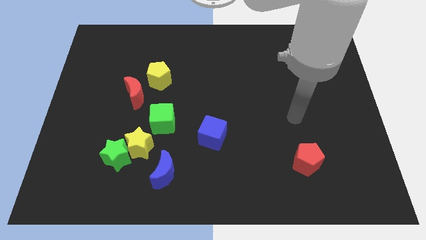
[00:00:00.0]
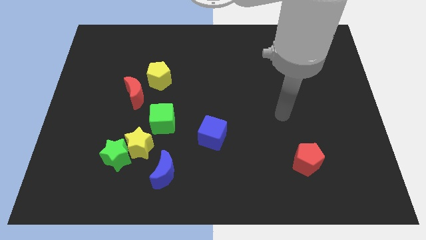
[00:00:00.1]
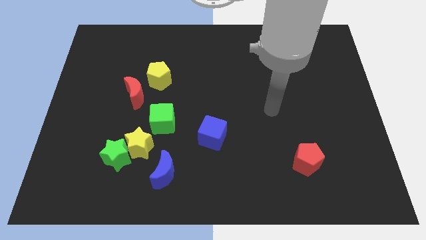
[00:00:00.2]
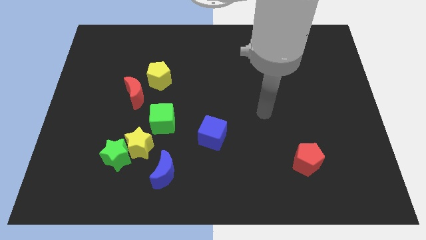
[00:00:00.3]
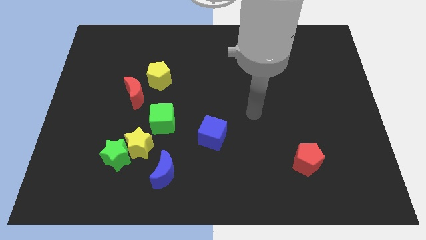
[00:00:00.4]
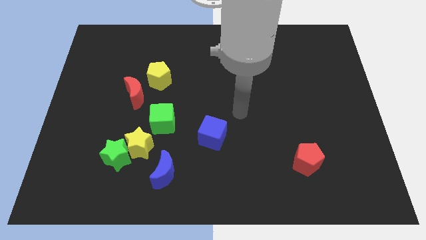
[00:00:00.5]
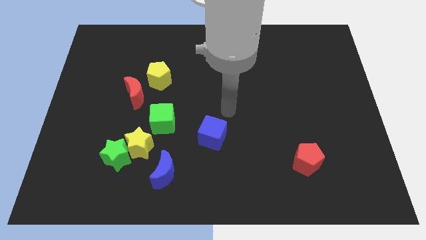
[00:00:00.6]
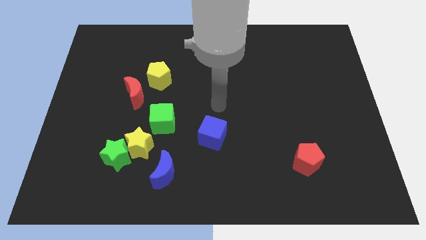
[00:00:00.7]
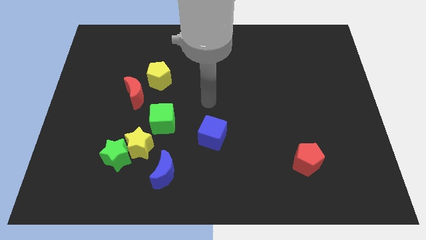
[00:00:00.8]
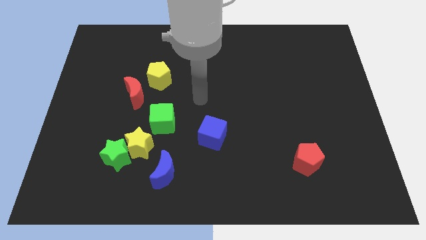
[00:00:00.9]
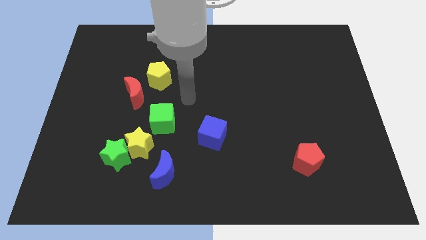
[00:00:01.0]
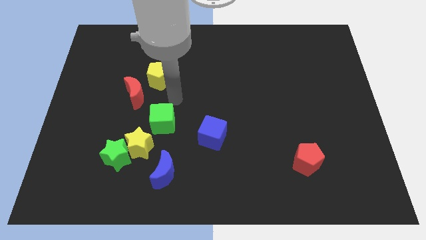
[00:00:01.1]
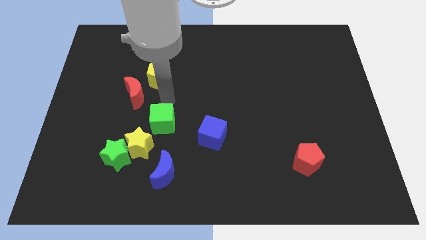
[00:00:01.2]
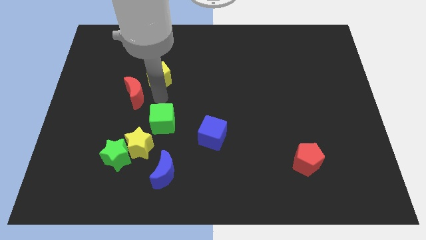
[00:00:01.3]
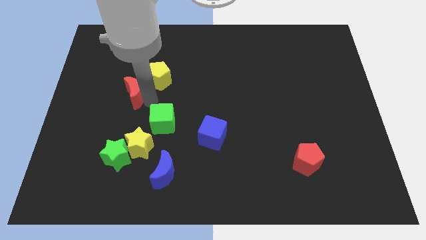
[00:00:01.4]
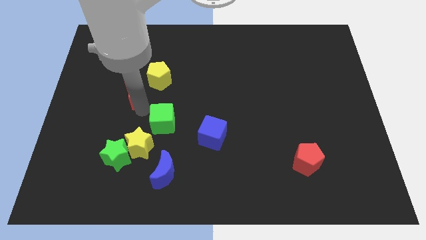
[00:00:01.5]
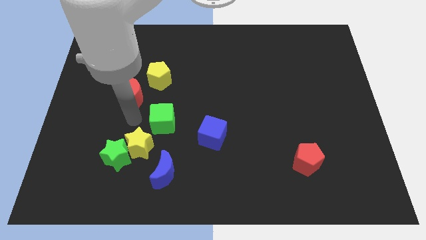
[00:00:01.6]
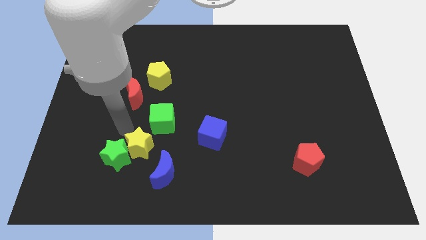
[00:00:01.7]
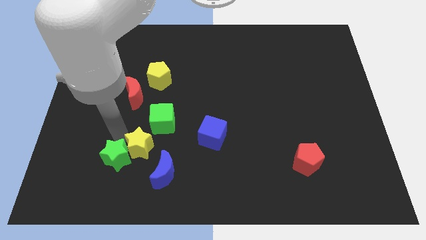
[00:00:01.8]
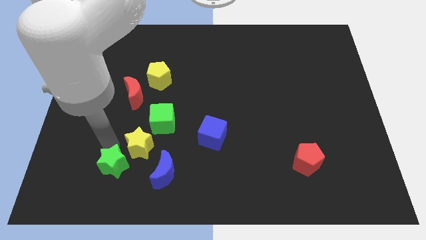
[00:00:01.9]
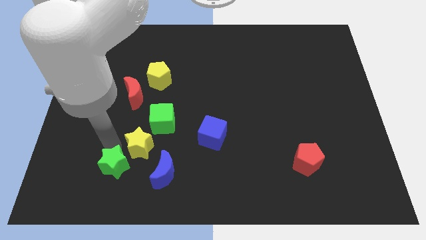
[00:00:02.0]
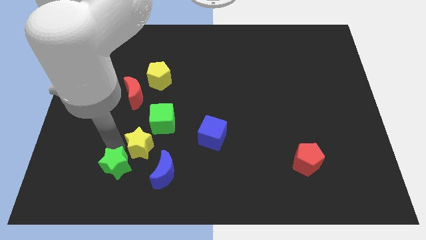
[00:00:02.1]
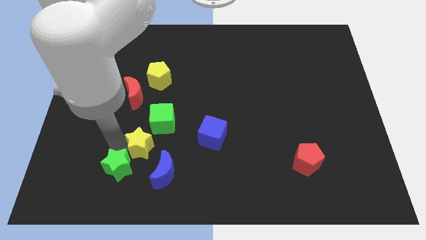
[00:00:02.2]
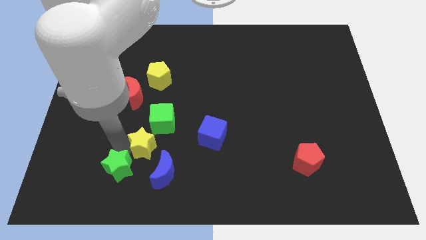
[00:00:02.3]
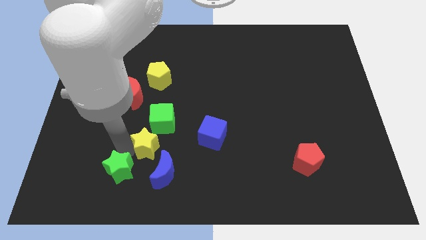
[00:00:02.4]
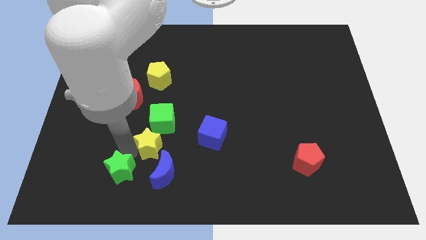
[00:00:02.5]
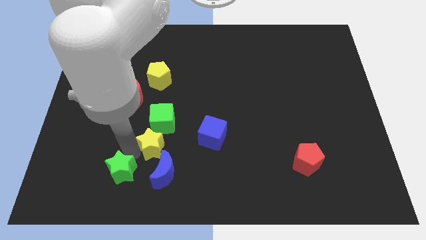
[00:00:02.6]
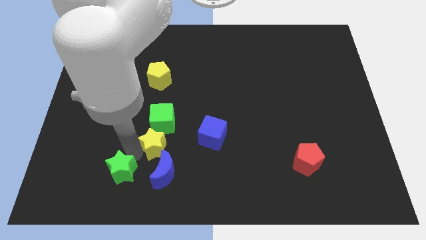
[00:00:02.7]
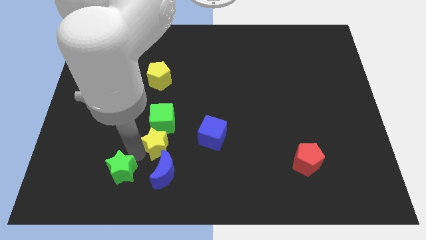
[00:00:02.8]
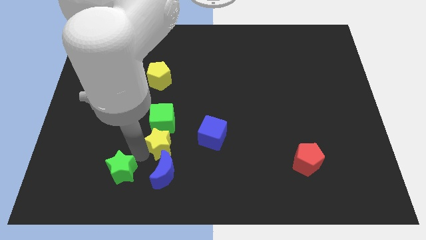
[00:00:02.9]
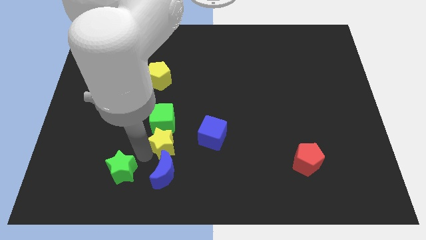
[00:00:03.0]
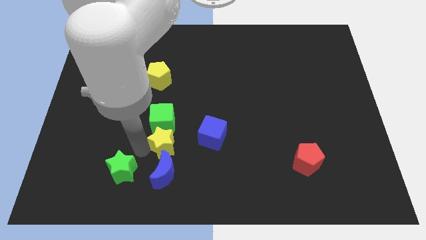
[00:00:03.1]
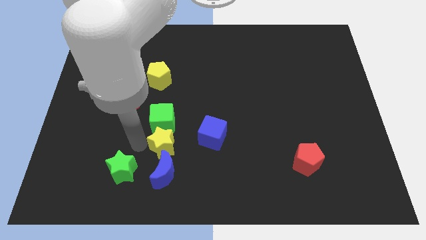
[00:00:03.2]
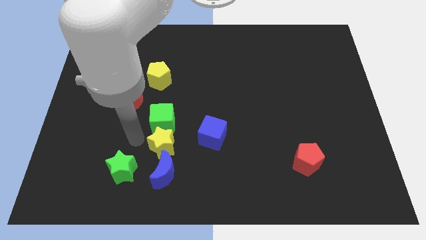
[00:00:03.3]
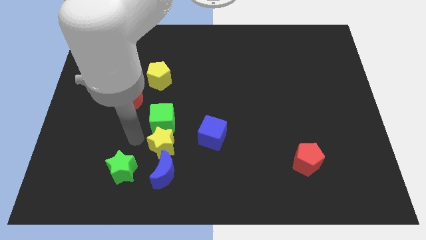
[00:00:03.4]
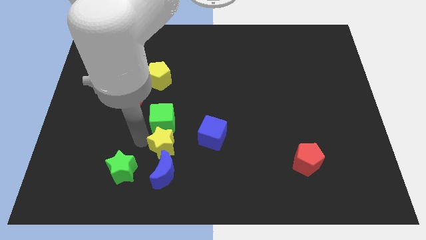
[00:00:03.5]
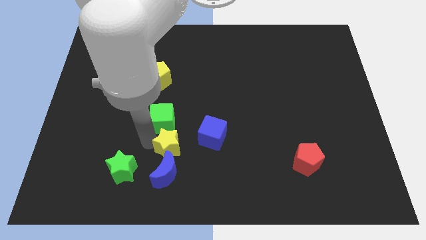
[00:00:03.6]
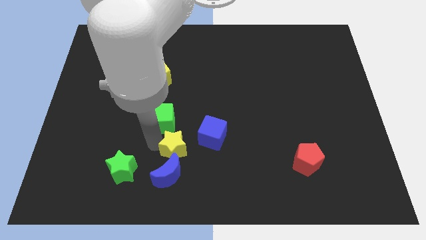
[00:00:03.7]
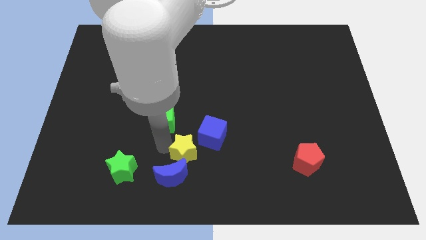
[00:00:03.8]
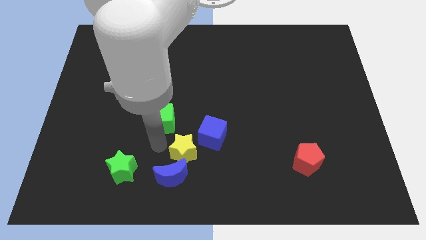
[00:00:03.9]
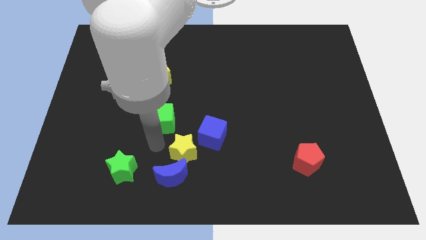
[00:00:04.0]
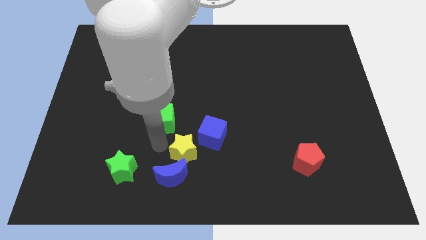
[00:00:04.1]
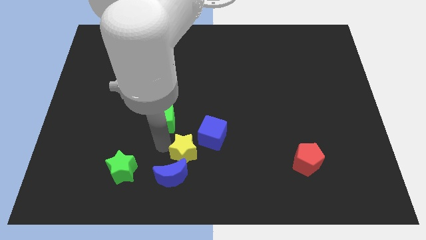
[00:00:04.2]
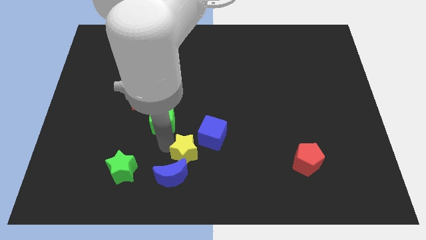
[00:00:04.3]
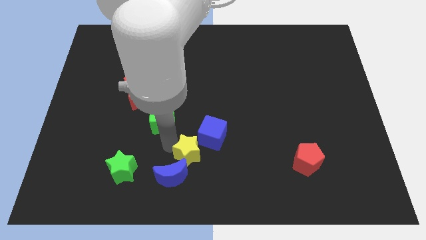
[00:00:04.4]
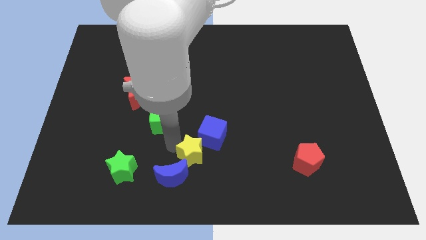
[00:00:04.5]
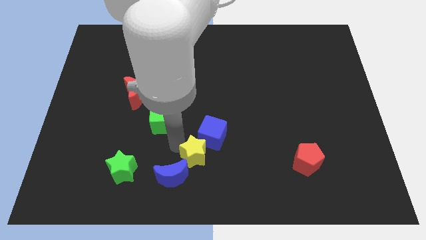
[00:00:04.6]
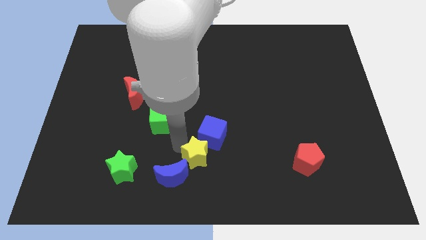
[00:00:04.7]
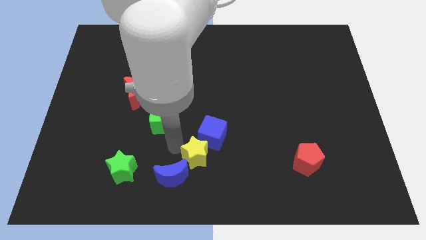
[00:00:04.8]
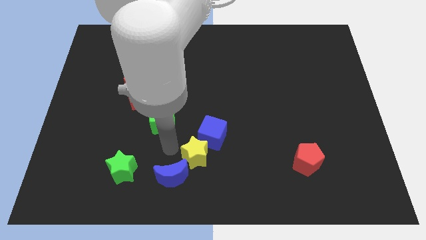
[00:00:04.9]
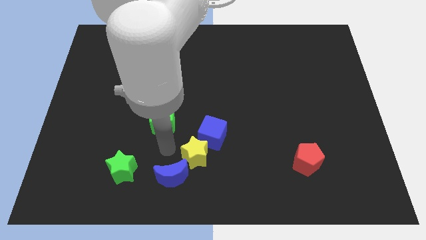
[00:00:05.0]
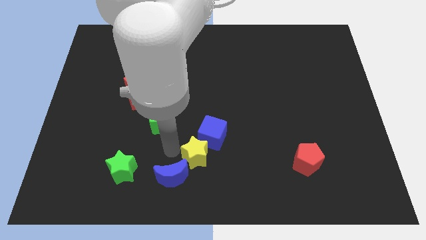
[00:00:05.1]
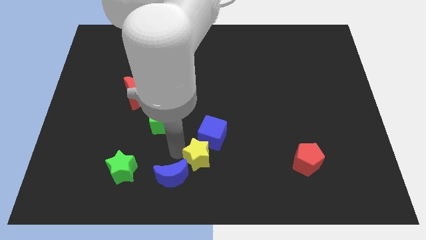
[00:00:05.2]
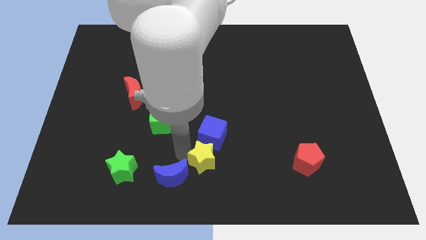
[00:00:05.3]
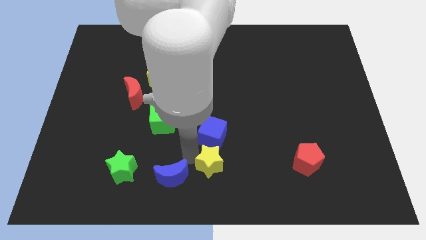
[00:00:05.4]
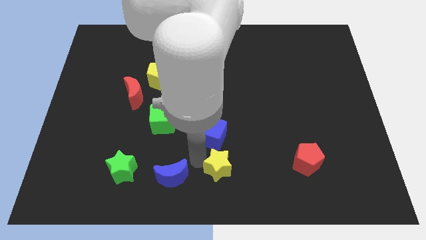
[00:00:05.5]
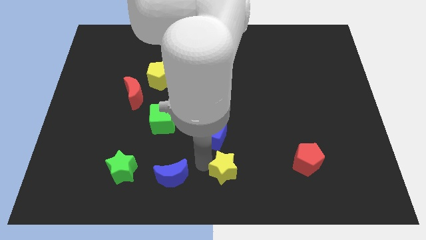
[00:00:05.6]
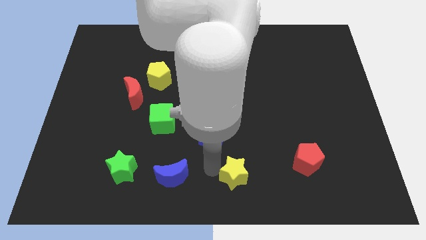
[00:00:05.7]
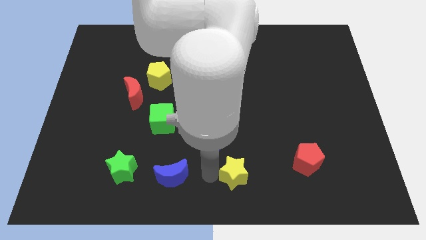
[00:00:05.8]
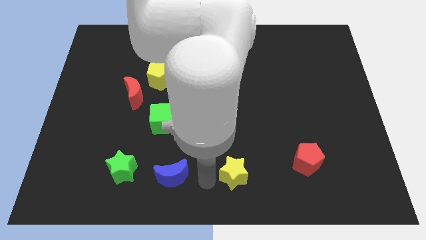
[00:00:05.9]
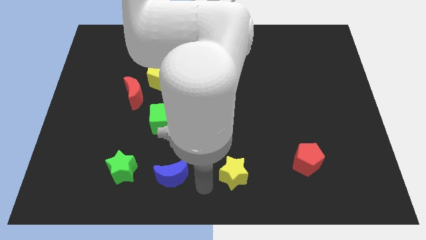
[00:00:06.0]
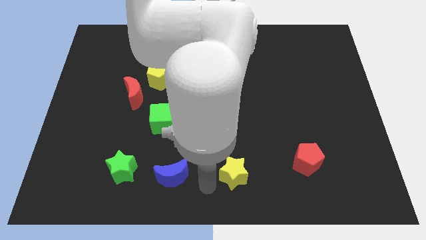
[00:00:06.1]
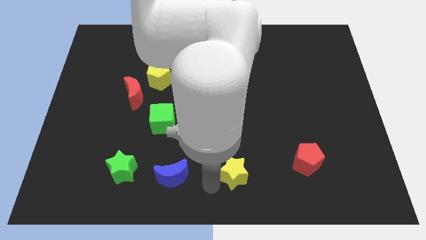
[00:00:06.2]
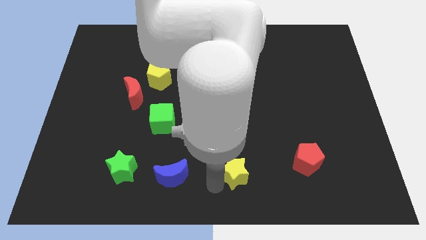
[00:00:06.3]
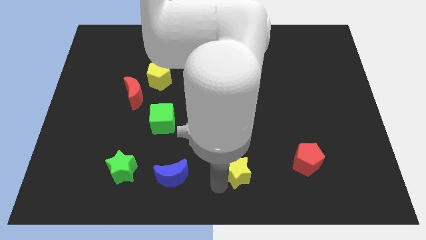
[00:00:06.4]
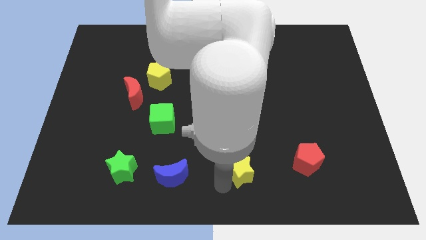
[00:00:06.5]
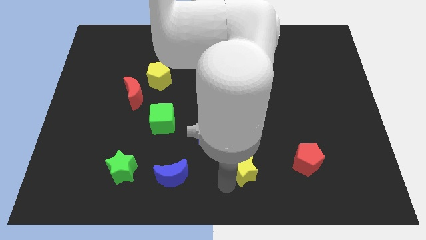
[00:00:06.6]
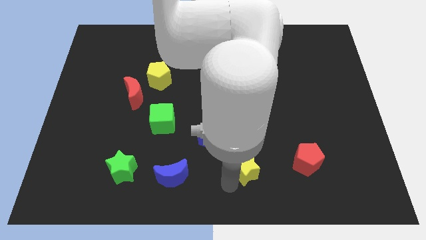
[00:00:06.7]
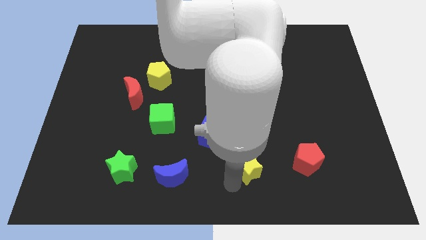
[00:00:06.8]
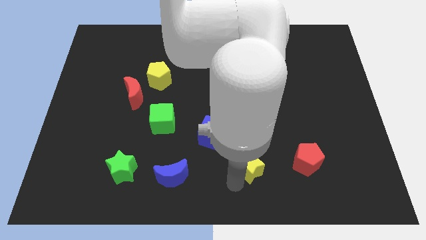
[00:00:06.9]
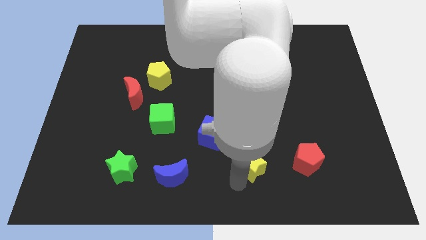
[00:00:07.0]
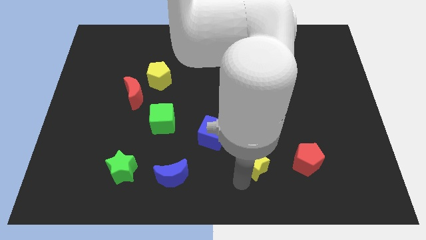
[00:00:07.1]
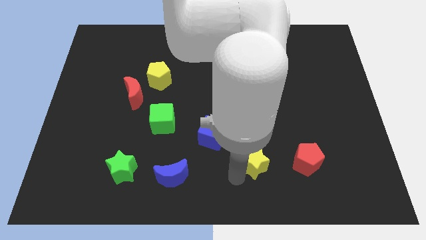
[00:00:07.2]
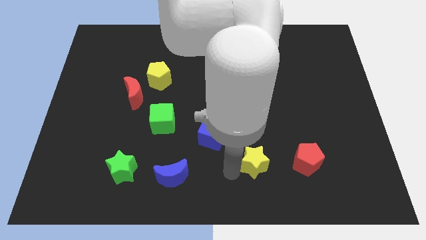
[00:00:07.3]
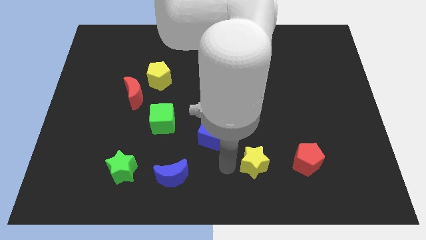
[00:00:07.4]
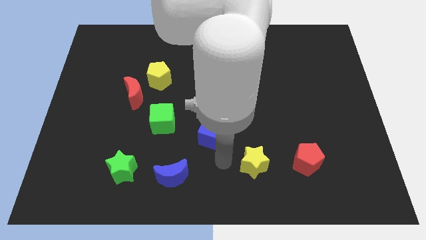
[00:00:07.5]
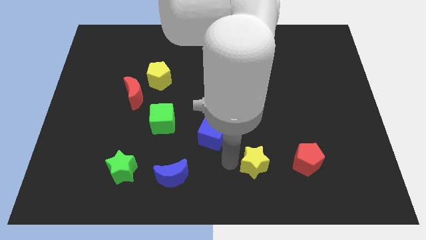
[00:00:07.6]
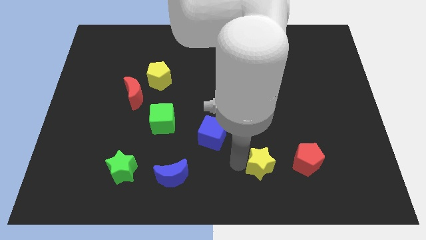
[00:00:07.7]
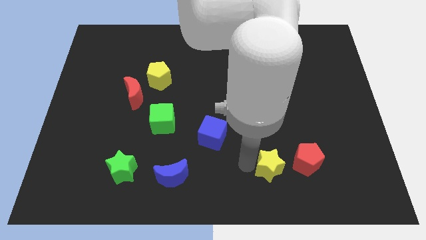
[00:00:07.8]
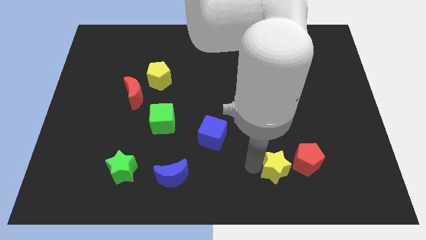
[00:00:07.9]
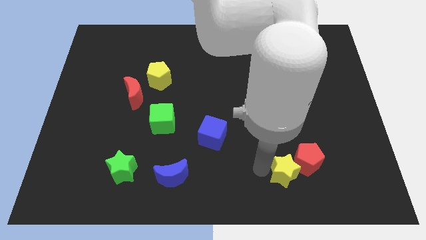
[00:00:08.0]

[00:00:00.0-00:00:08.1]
move the yellow star to the red pentagon
